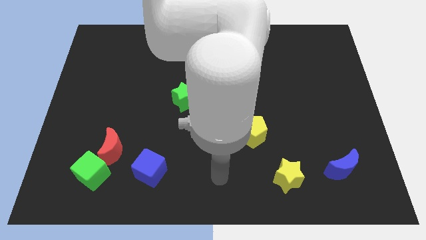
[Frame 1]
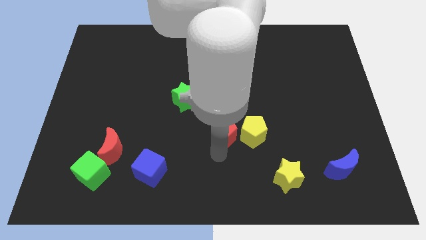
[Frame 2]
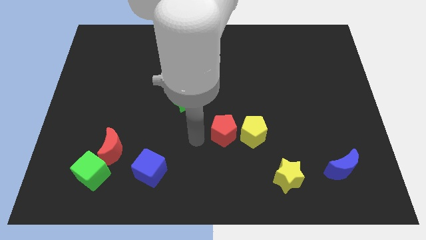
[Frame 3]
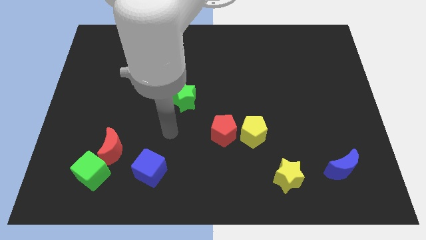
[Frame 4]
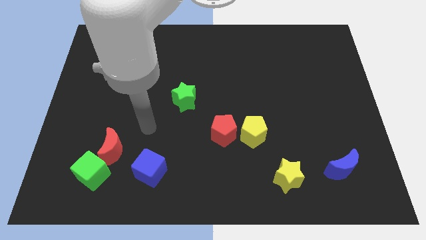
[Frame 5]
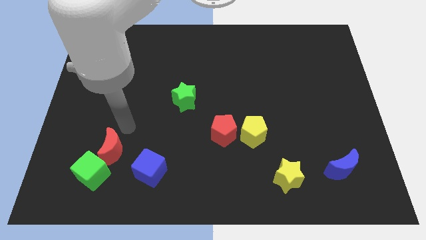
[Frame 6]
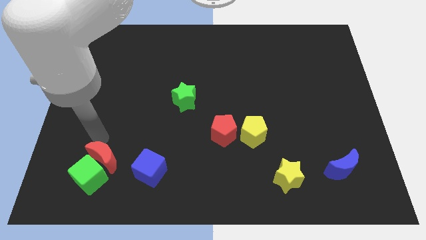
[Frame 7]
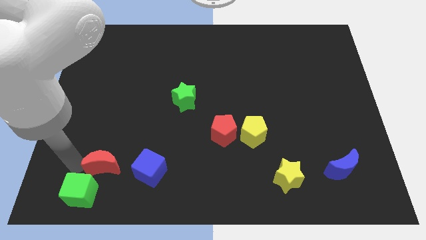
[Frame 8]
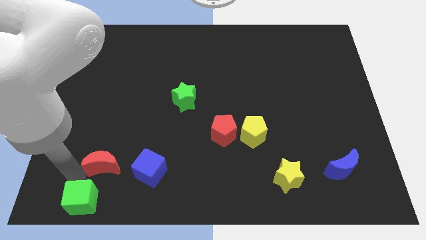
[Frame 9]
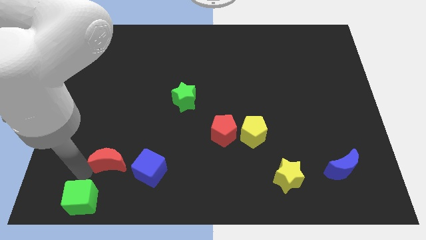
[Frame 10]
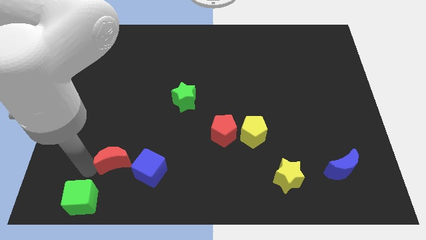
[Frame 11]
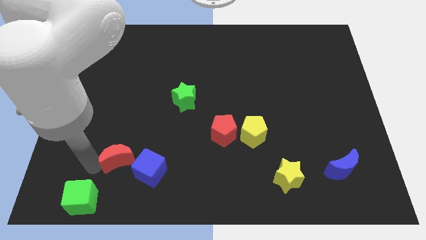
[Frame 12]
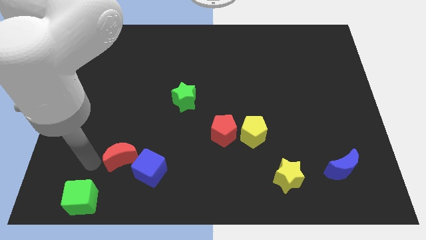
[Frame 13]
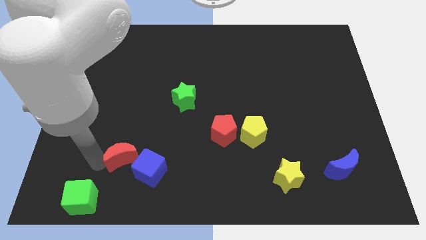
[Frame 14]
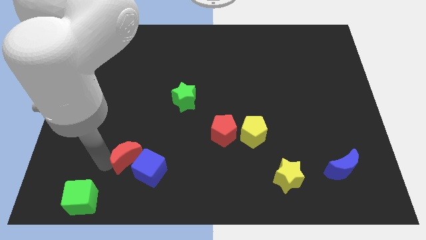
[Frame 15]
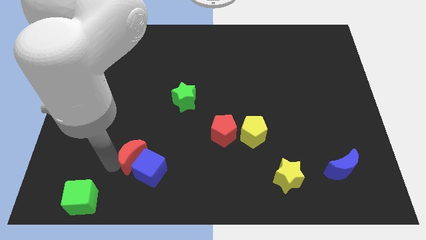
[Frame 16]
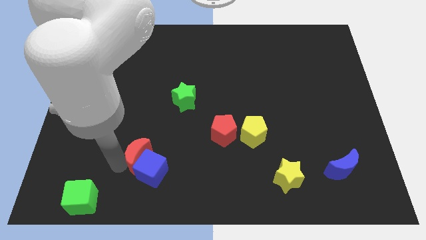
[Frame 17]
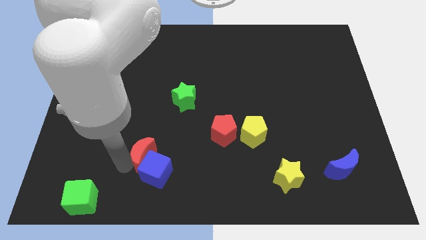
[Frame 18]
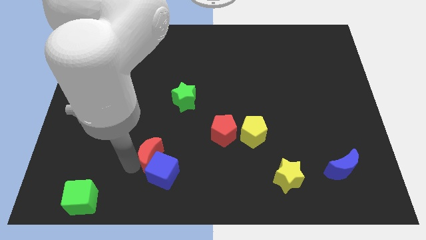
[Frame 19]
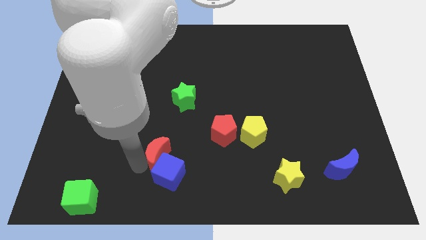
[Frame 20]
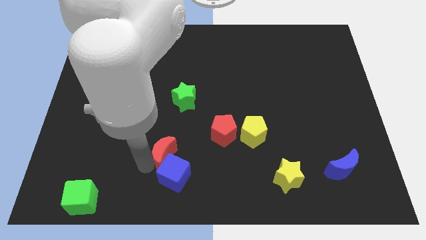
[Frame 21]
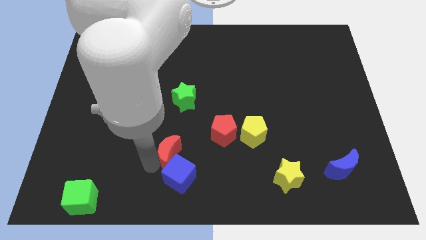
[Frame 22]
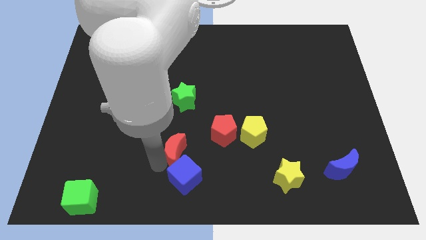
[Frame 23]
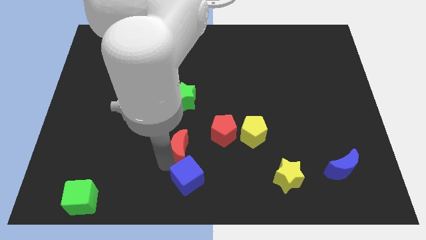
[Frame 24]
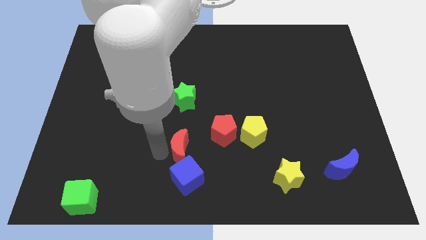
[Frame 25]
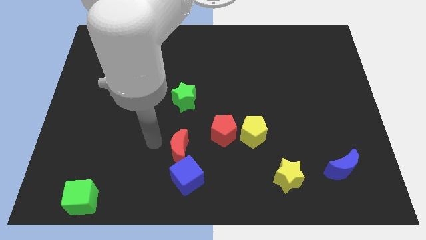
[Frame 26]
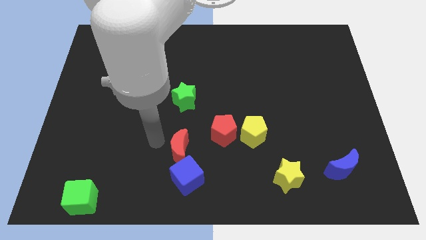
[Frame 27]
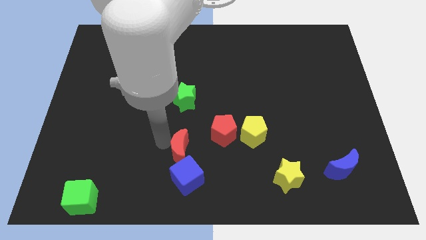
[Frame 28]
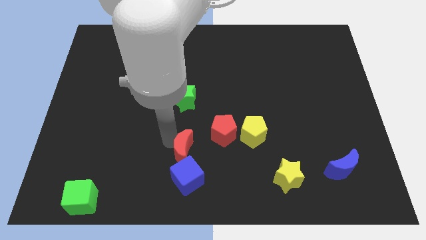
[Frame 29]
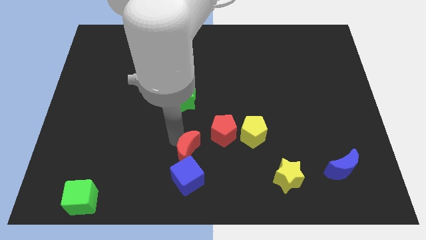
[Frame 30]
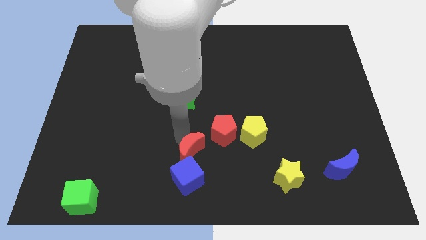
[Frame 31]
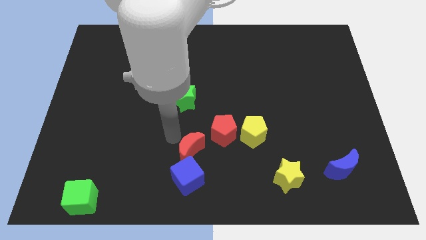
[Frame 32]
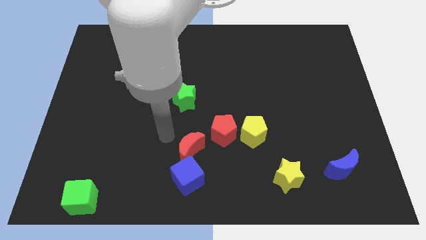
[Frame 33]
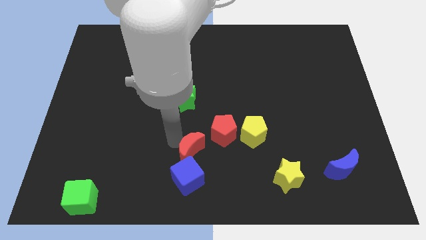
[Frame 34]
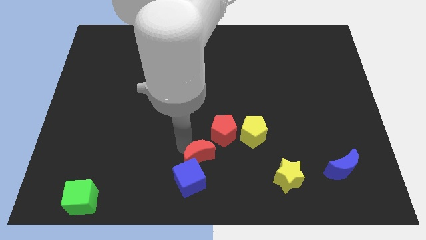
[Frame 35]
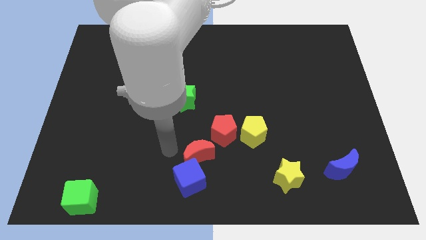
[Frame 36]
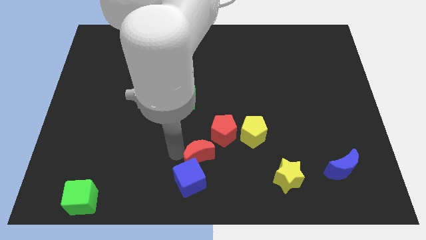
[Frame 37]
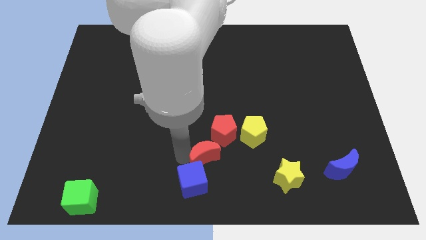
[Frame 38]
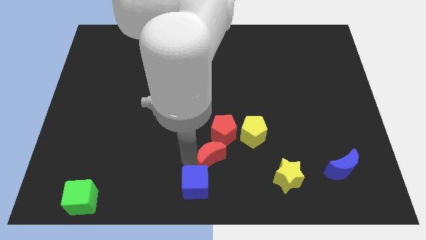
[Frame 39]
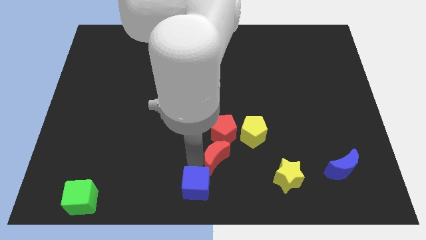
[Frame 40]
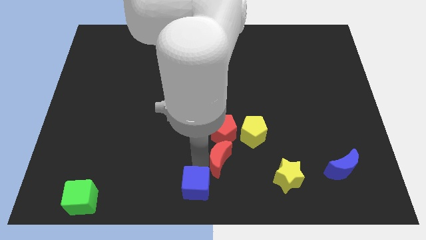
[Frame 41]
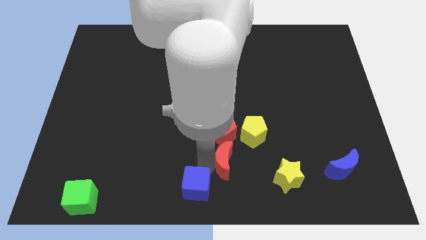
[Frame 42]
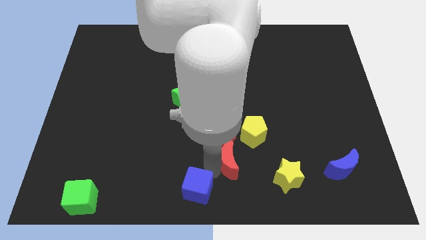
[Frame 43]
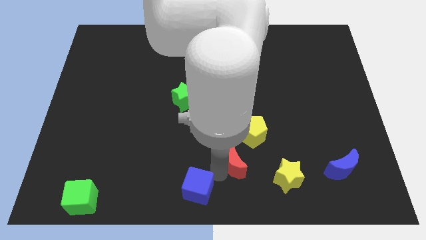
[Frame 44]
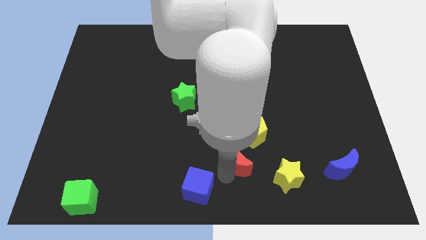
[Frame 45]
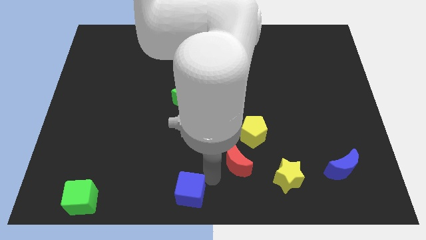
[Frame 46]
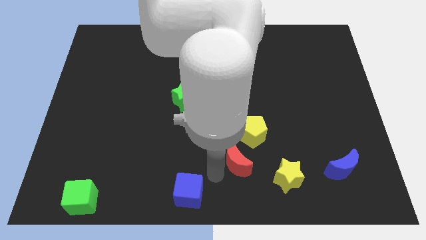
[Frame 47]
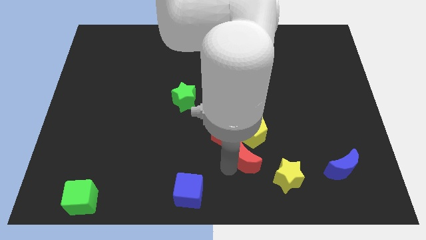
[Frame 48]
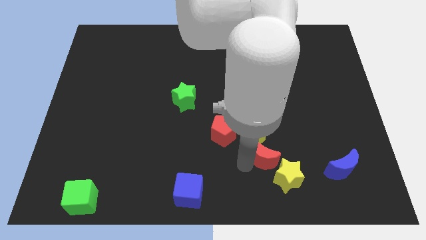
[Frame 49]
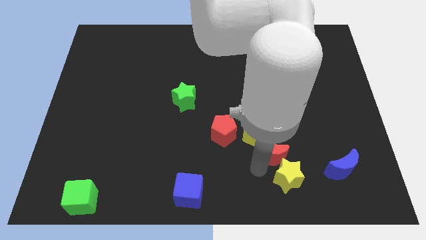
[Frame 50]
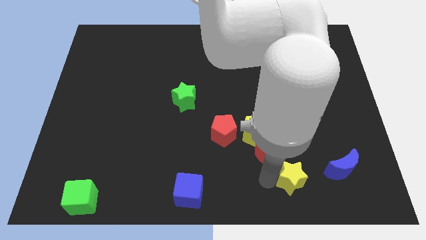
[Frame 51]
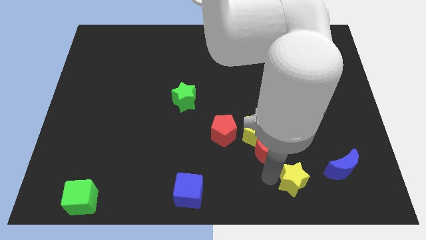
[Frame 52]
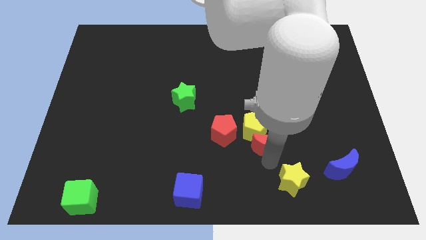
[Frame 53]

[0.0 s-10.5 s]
move the red moon to the right of the red pentagon

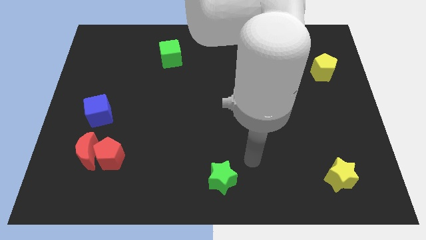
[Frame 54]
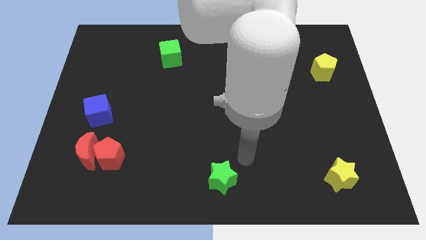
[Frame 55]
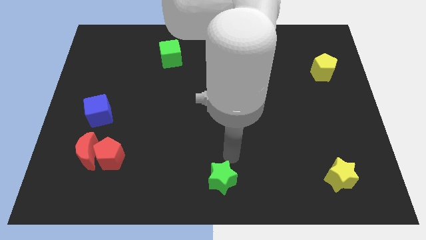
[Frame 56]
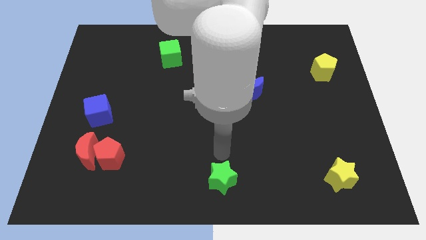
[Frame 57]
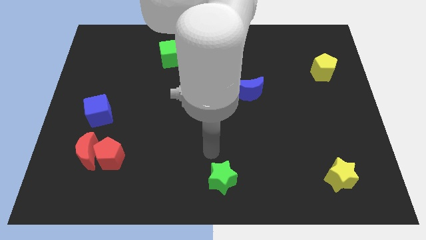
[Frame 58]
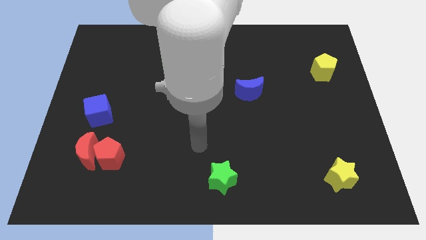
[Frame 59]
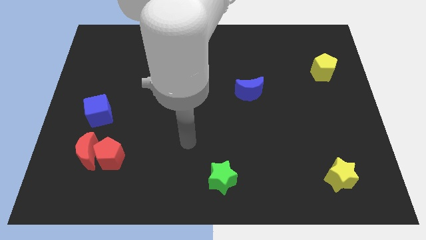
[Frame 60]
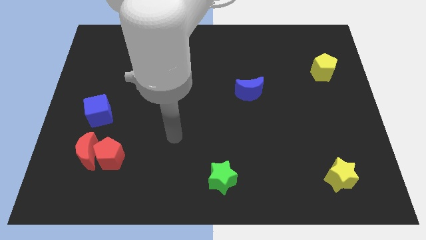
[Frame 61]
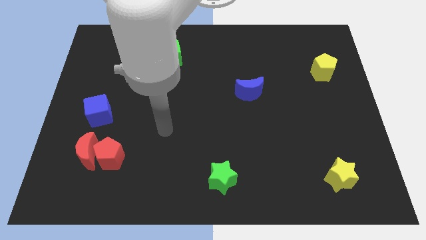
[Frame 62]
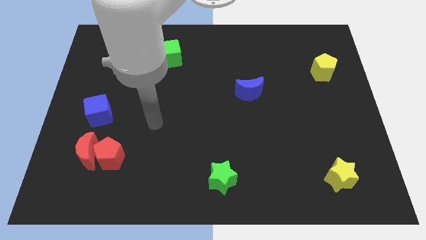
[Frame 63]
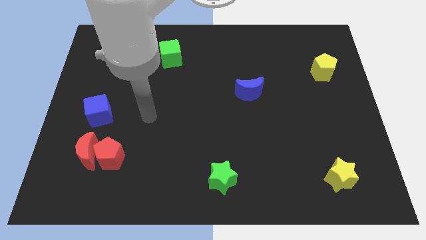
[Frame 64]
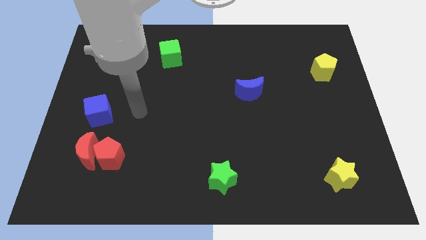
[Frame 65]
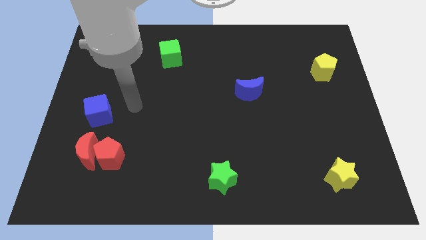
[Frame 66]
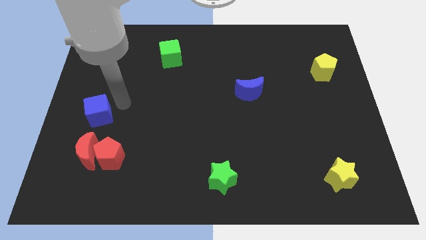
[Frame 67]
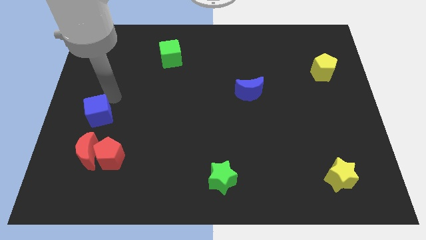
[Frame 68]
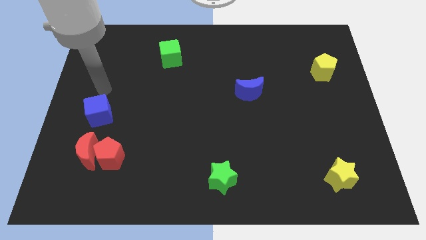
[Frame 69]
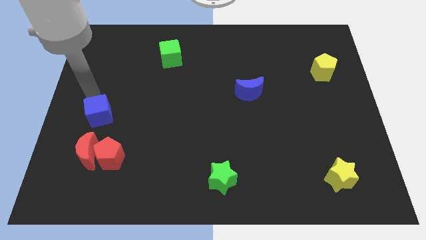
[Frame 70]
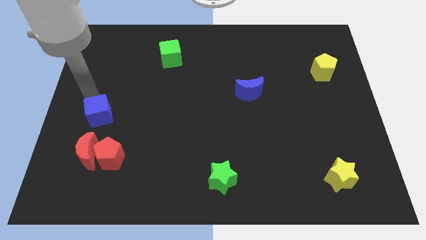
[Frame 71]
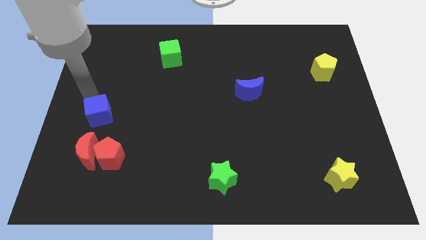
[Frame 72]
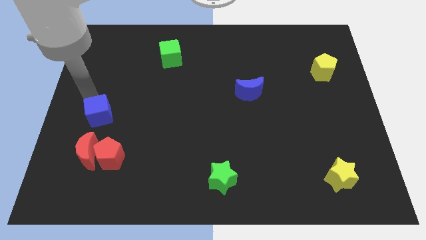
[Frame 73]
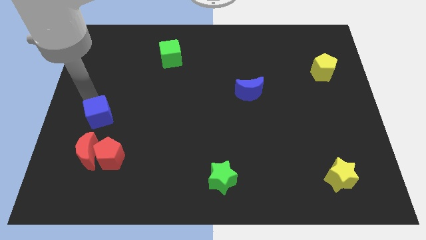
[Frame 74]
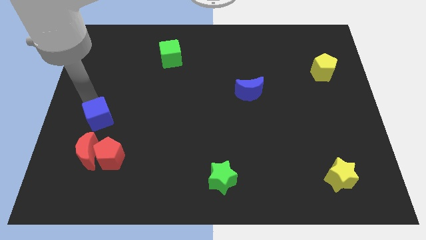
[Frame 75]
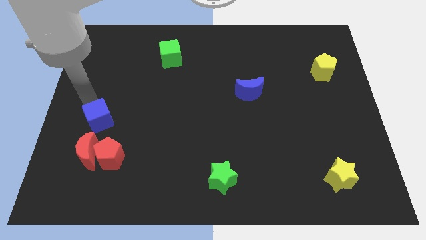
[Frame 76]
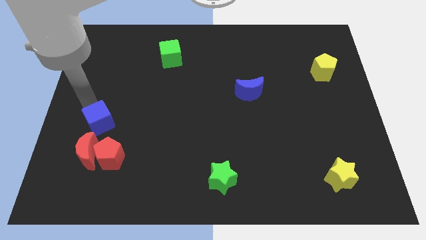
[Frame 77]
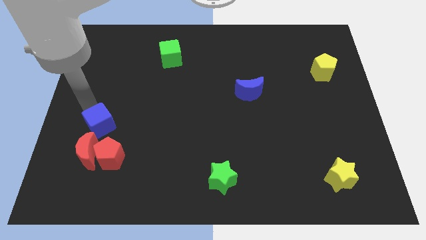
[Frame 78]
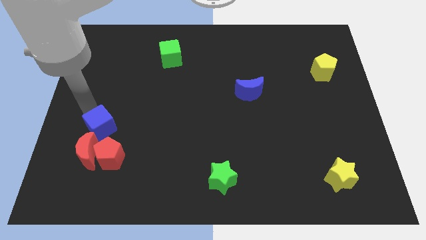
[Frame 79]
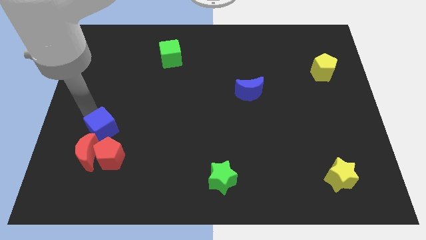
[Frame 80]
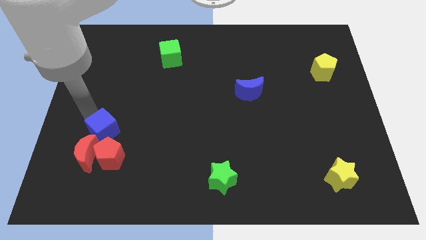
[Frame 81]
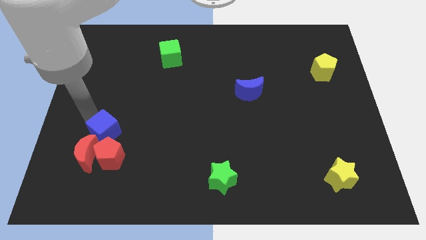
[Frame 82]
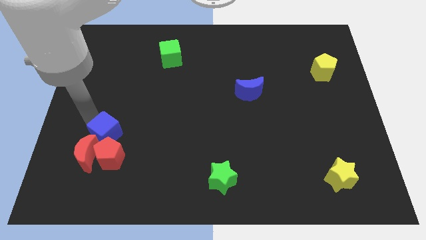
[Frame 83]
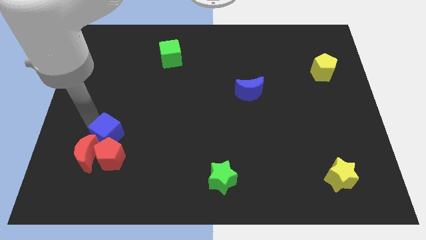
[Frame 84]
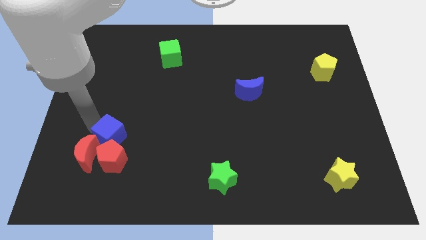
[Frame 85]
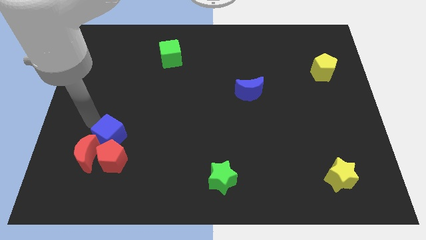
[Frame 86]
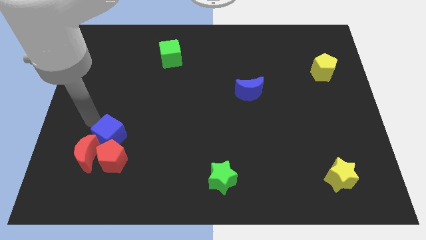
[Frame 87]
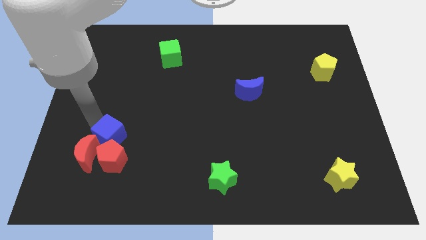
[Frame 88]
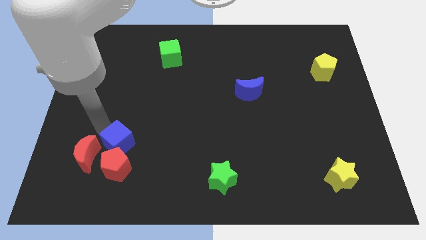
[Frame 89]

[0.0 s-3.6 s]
put the blue cube right of the red moon
